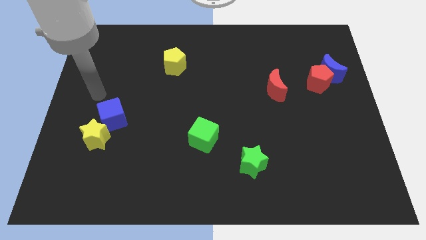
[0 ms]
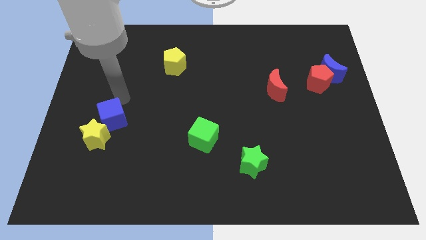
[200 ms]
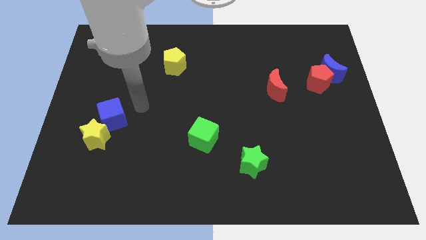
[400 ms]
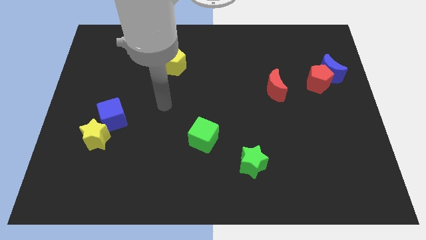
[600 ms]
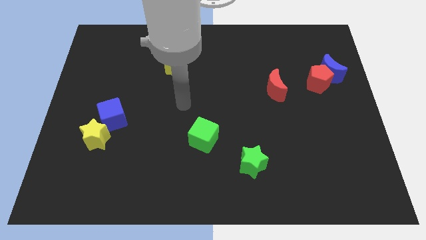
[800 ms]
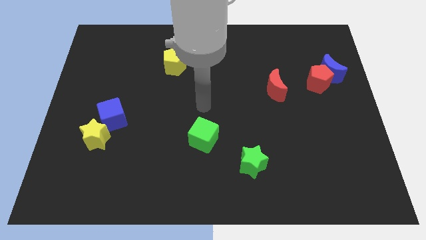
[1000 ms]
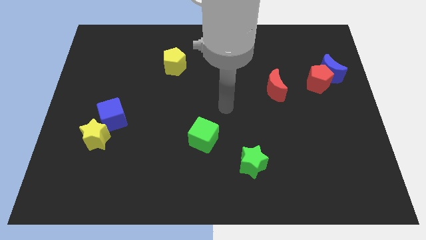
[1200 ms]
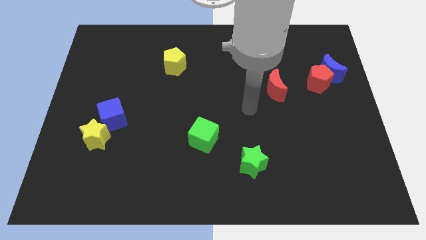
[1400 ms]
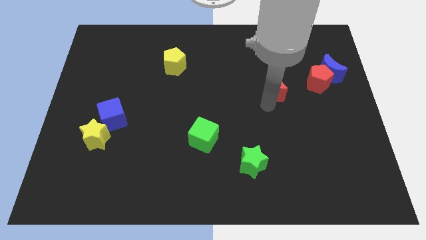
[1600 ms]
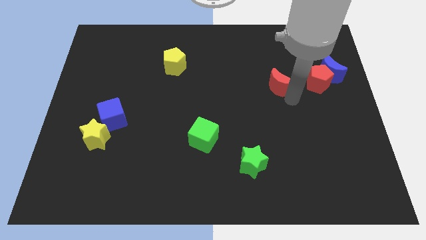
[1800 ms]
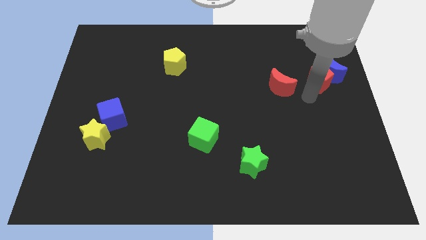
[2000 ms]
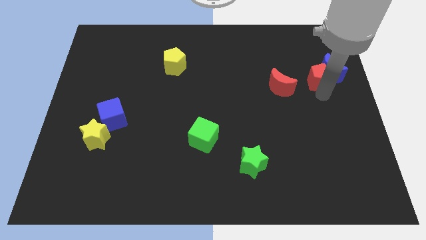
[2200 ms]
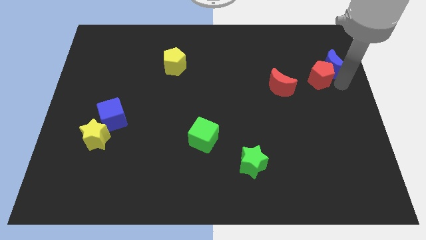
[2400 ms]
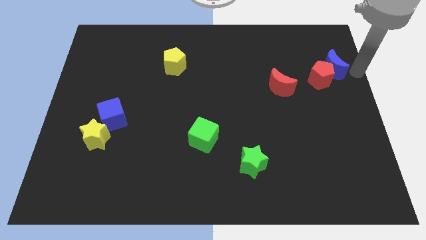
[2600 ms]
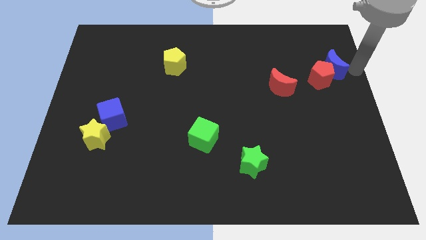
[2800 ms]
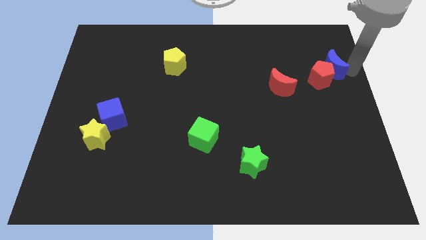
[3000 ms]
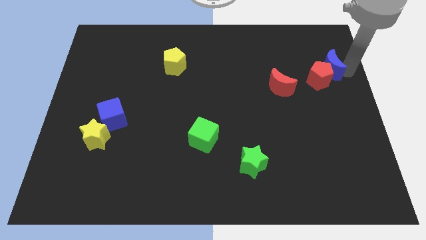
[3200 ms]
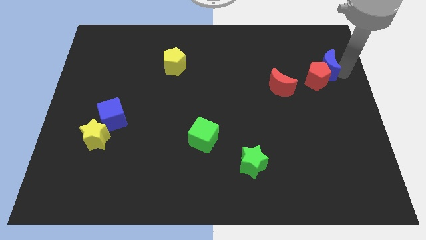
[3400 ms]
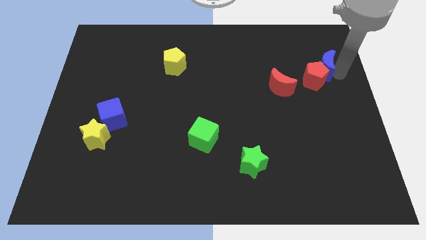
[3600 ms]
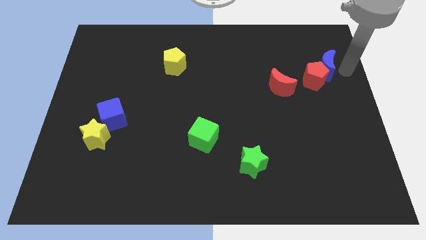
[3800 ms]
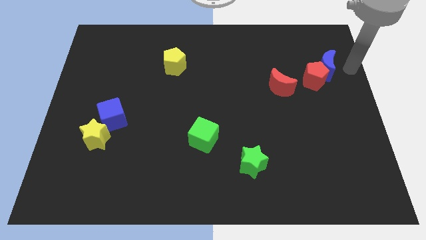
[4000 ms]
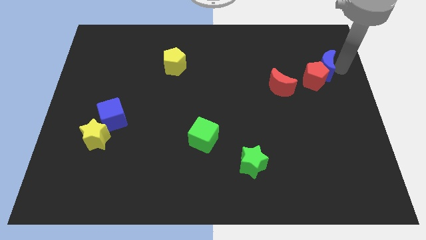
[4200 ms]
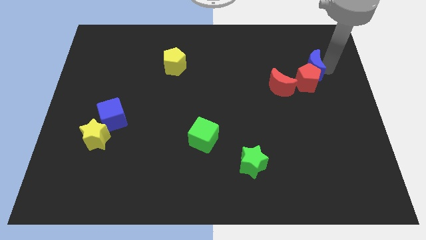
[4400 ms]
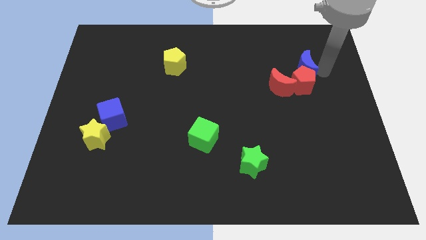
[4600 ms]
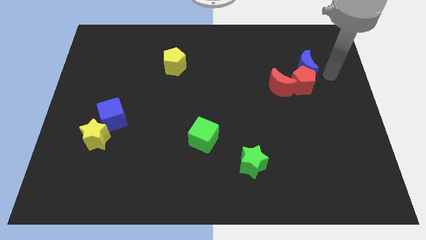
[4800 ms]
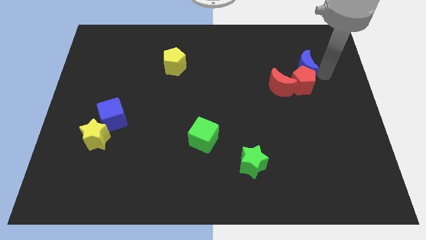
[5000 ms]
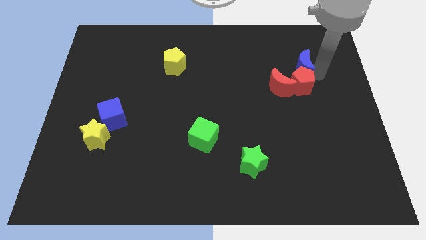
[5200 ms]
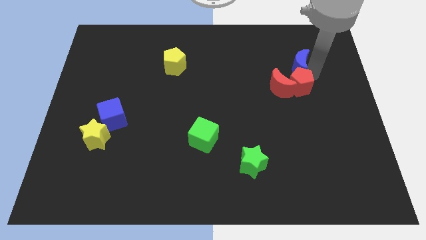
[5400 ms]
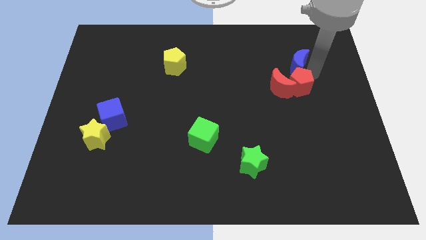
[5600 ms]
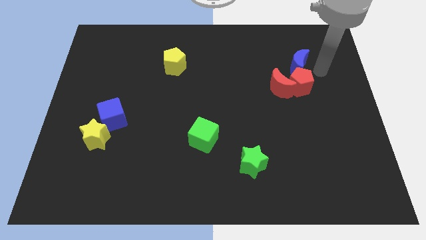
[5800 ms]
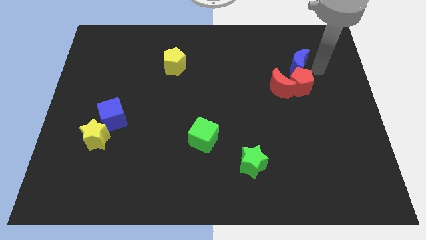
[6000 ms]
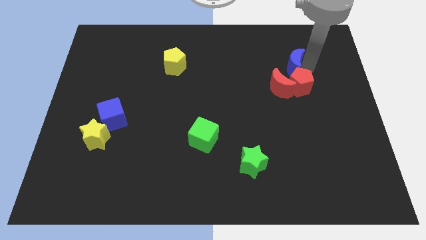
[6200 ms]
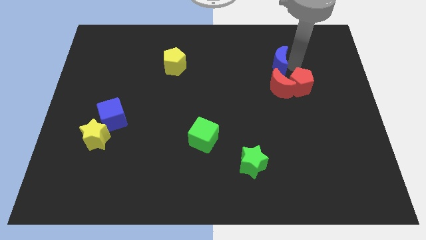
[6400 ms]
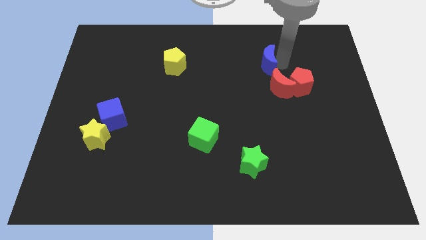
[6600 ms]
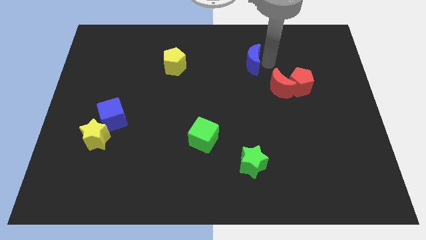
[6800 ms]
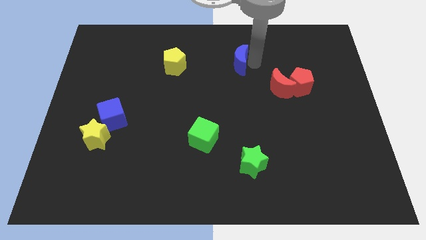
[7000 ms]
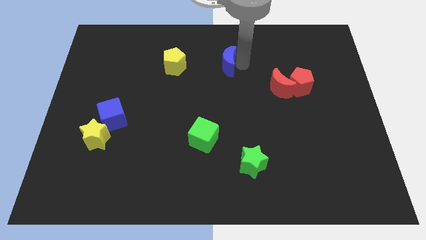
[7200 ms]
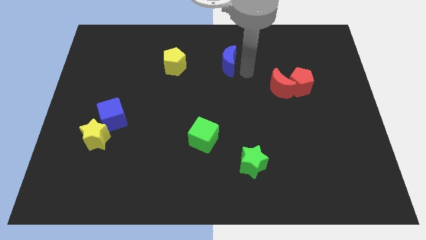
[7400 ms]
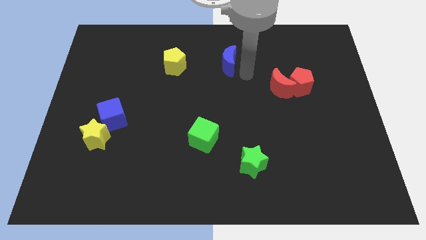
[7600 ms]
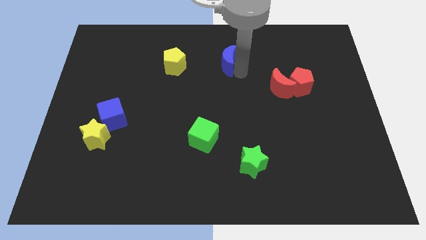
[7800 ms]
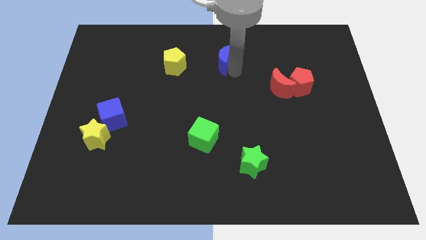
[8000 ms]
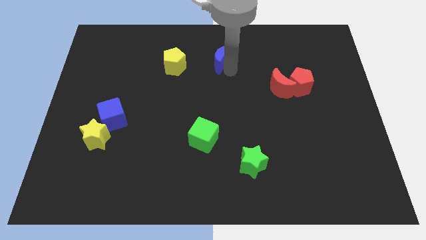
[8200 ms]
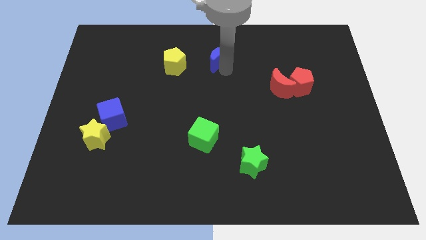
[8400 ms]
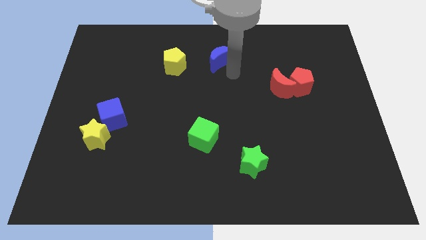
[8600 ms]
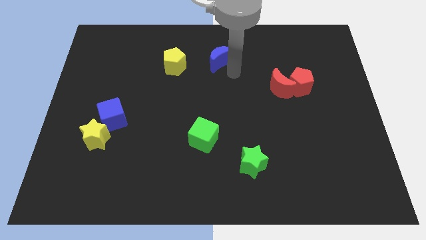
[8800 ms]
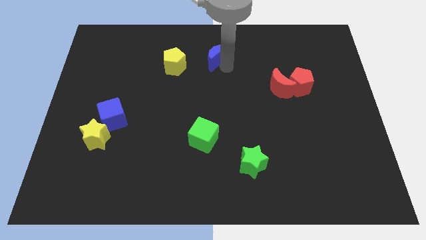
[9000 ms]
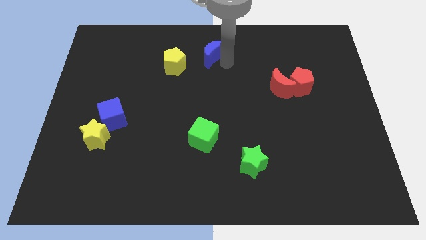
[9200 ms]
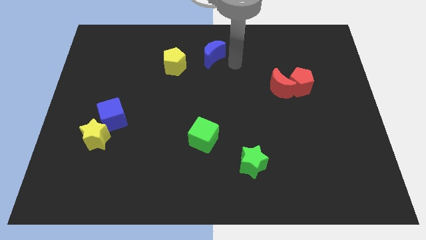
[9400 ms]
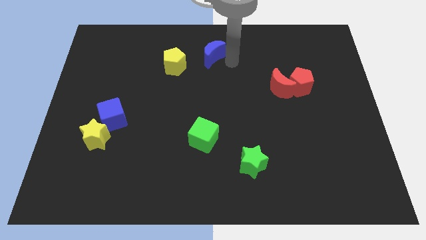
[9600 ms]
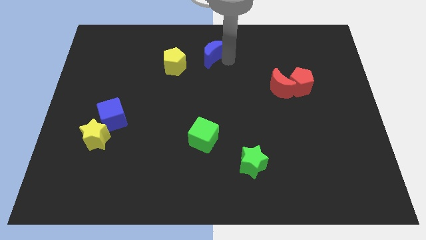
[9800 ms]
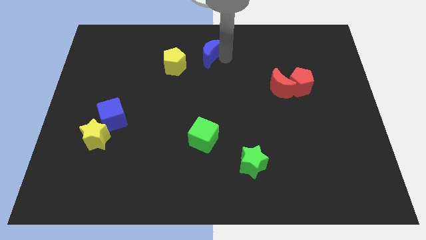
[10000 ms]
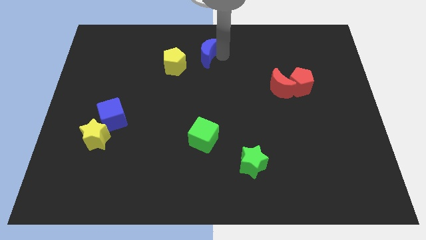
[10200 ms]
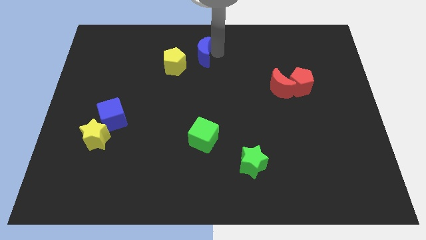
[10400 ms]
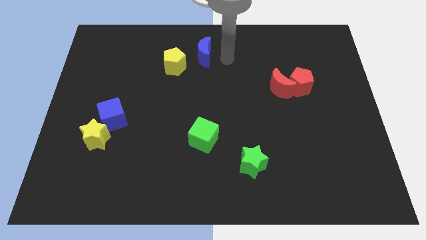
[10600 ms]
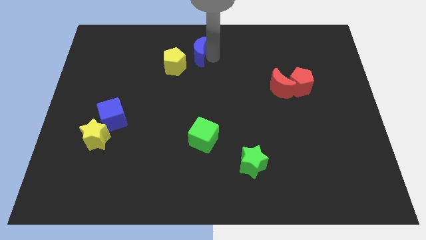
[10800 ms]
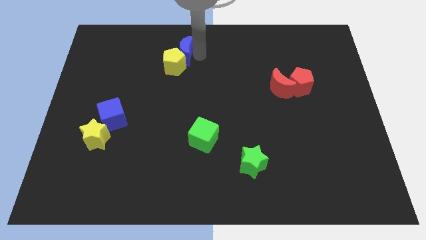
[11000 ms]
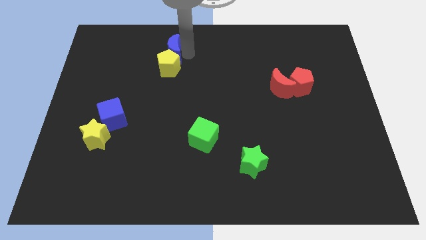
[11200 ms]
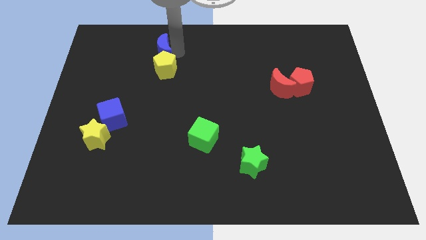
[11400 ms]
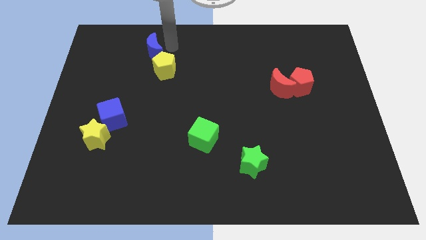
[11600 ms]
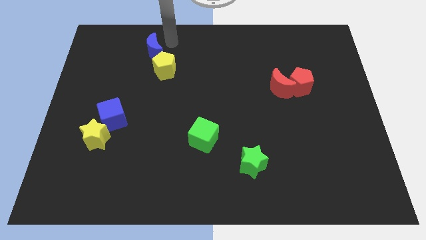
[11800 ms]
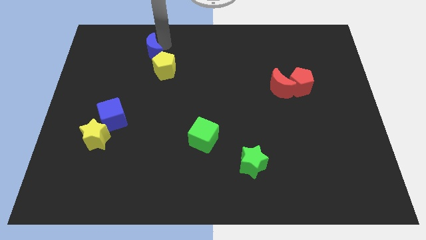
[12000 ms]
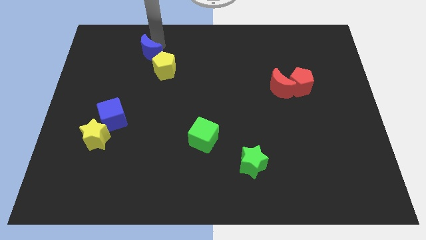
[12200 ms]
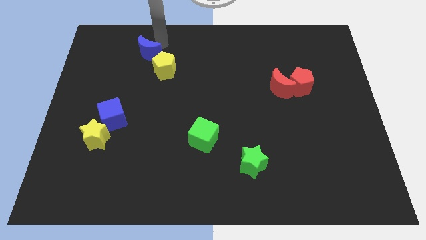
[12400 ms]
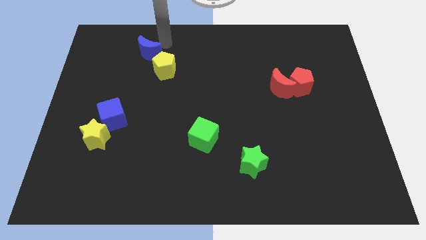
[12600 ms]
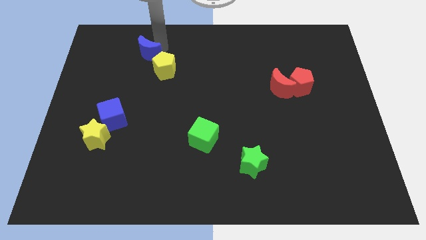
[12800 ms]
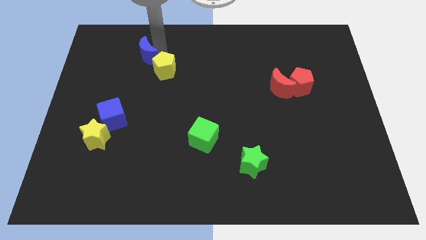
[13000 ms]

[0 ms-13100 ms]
move the blue moon just left of the yellow pentagon

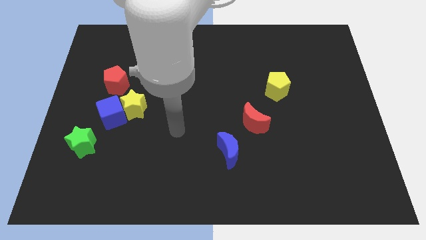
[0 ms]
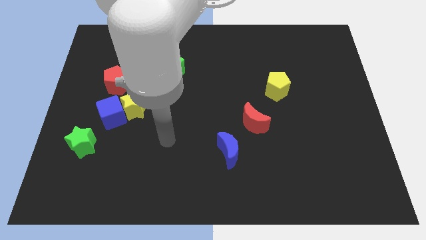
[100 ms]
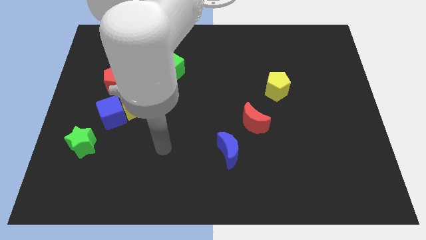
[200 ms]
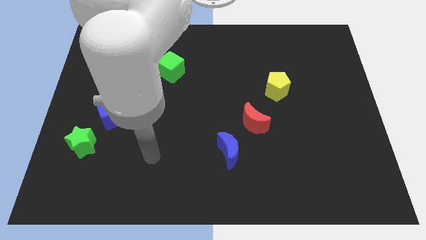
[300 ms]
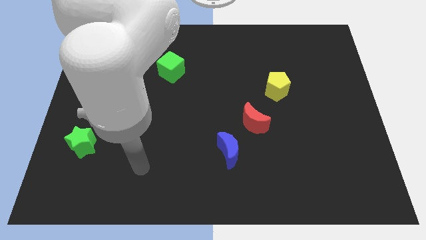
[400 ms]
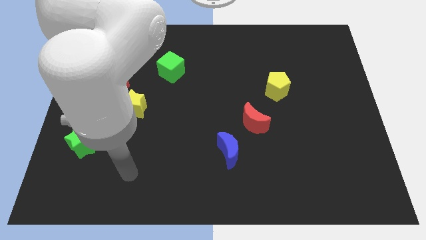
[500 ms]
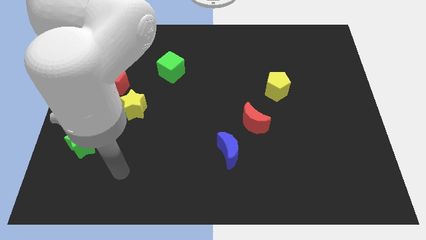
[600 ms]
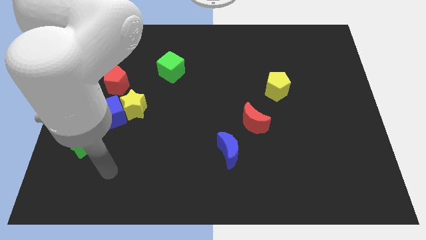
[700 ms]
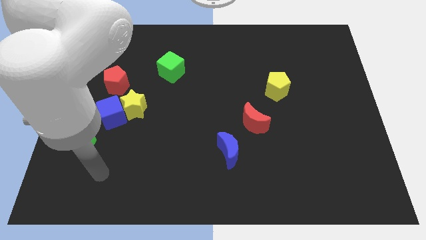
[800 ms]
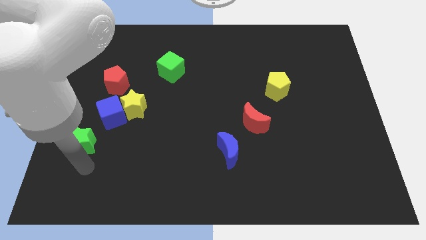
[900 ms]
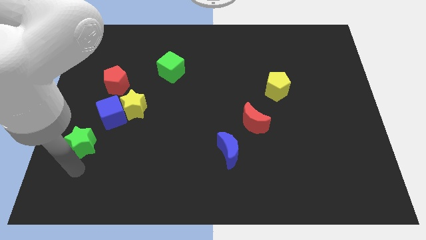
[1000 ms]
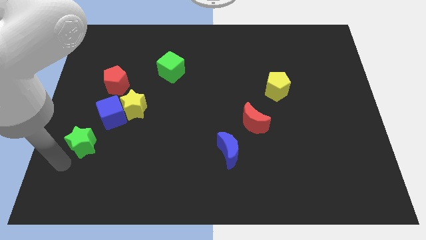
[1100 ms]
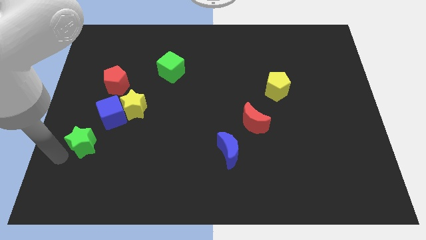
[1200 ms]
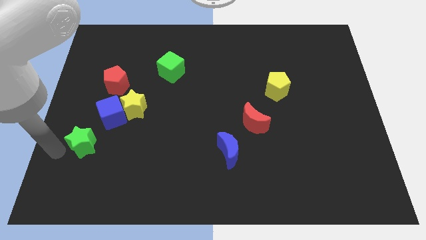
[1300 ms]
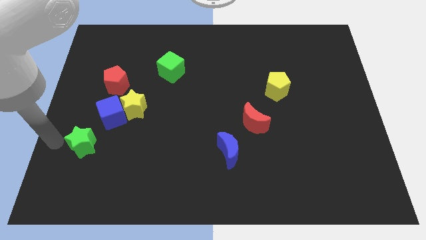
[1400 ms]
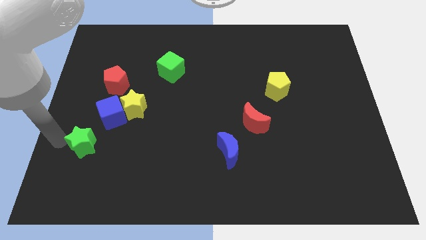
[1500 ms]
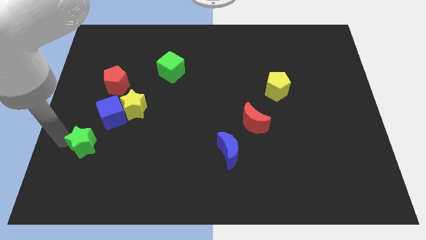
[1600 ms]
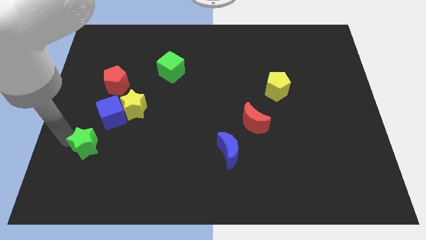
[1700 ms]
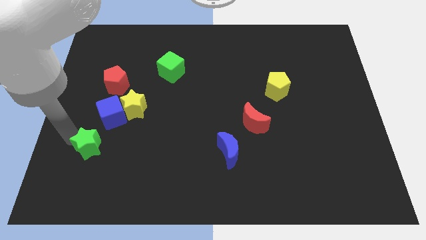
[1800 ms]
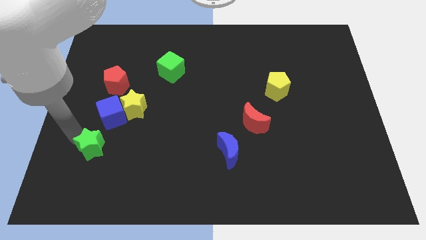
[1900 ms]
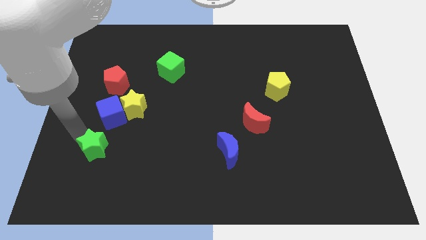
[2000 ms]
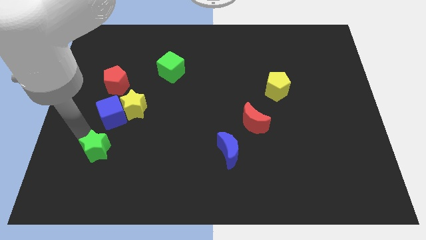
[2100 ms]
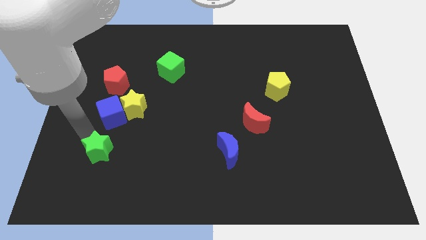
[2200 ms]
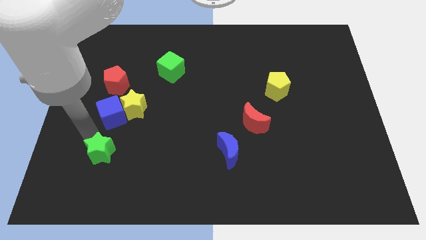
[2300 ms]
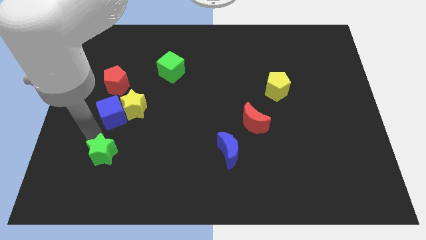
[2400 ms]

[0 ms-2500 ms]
slide the green star to the bottom side of the yellow star
